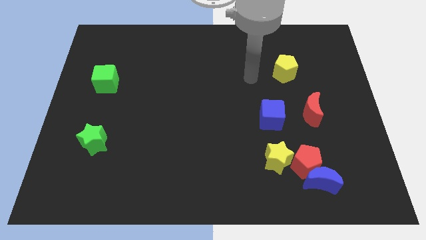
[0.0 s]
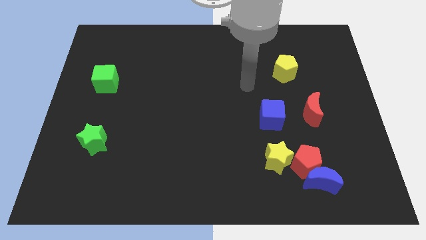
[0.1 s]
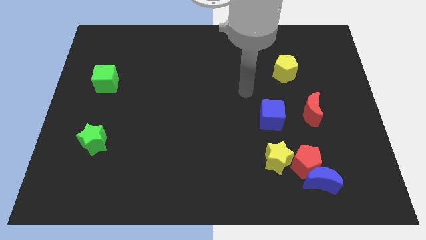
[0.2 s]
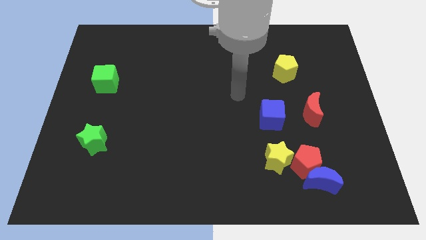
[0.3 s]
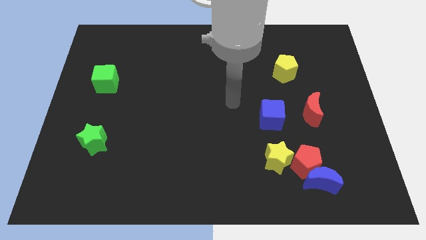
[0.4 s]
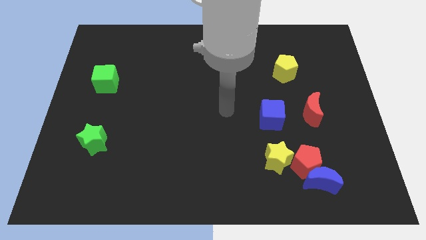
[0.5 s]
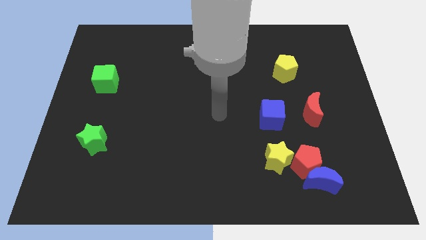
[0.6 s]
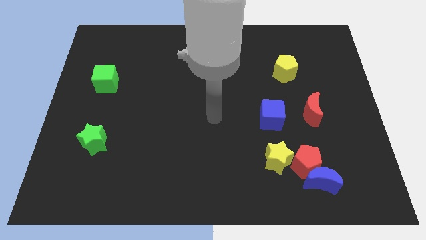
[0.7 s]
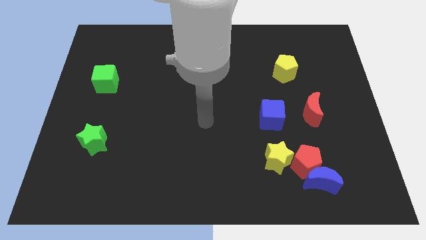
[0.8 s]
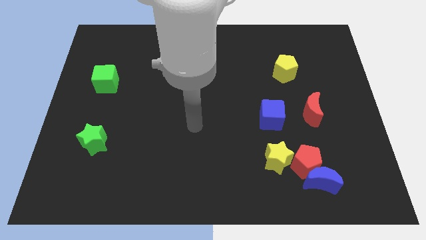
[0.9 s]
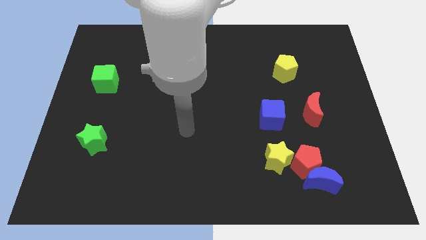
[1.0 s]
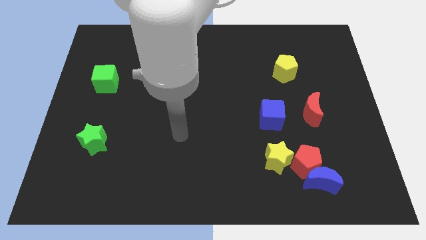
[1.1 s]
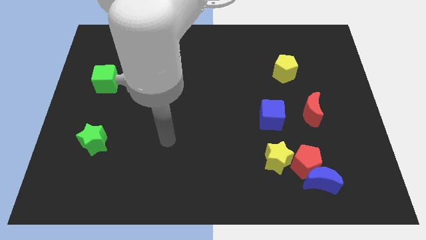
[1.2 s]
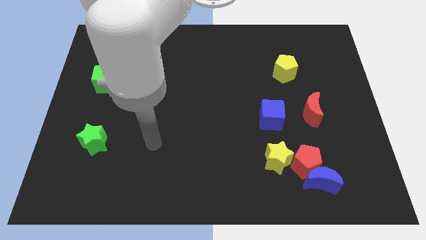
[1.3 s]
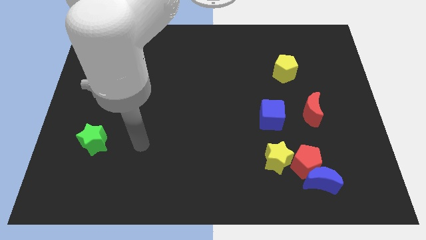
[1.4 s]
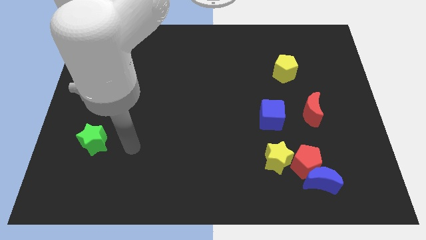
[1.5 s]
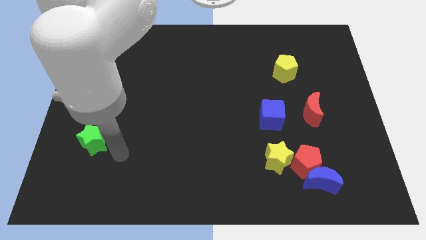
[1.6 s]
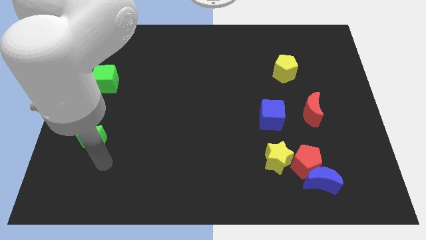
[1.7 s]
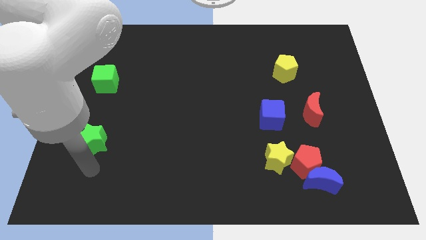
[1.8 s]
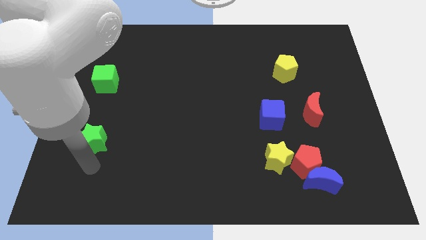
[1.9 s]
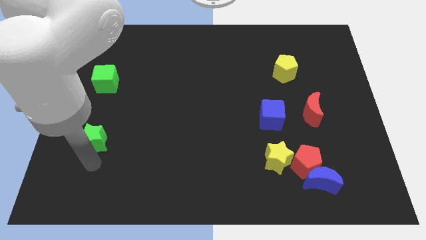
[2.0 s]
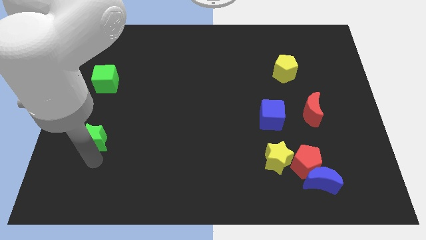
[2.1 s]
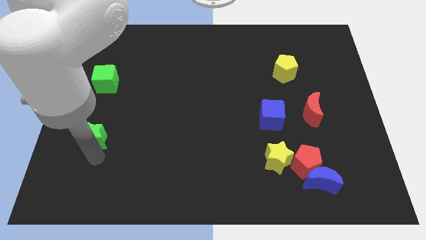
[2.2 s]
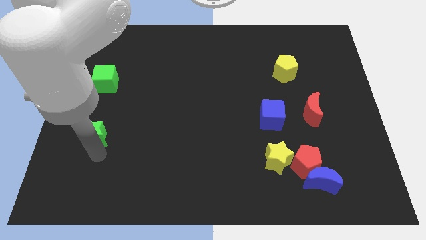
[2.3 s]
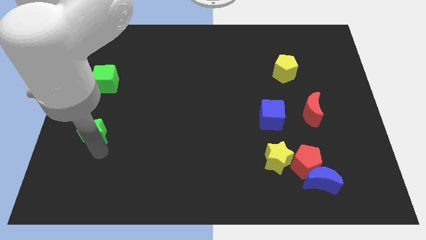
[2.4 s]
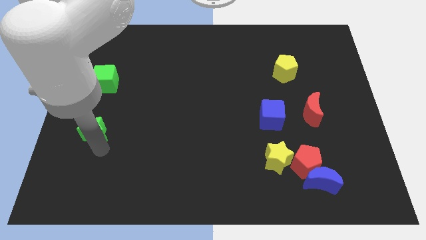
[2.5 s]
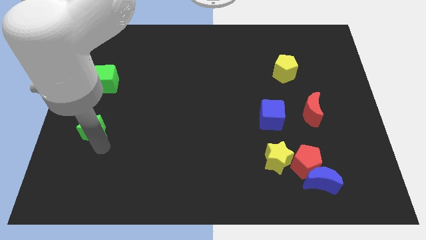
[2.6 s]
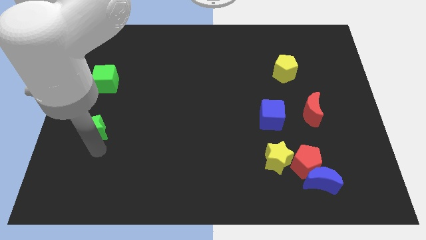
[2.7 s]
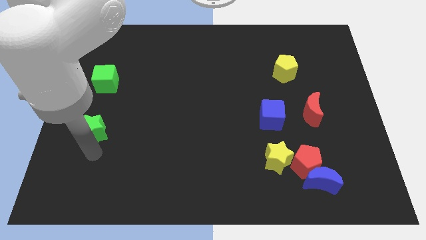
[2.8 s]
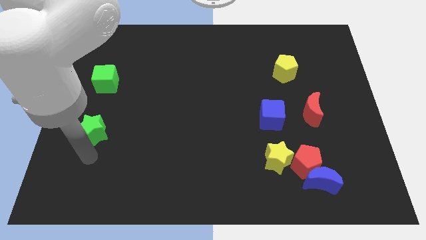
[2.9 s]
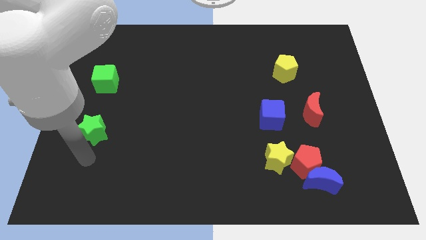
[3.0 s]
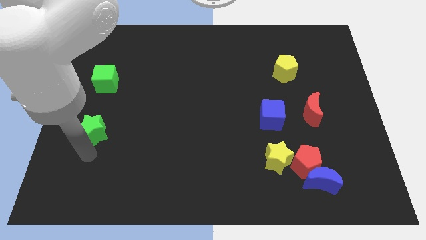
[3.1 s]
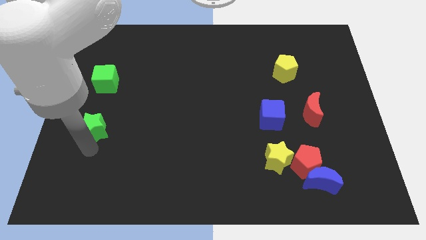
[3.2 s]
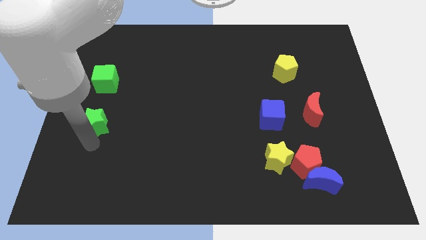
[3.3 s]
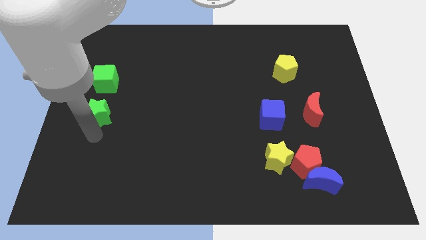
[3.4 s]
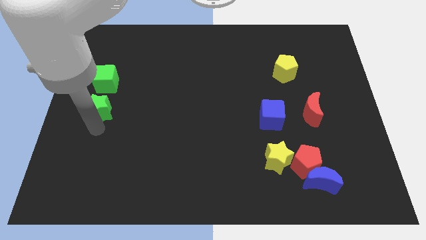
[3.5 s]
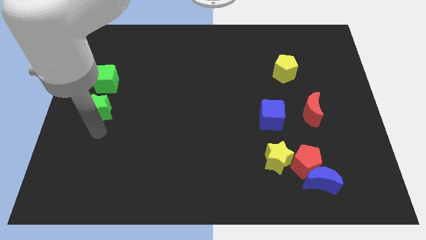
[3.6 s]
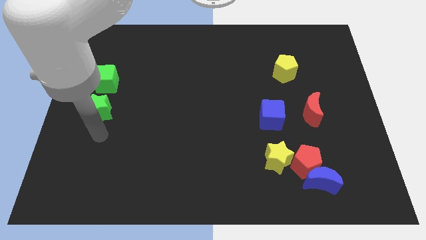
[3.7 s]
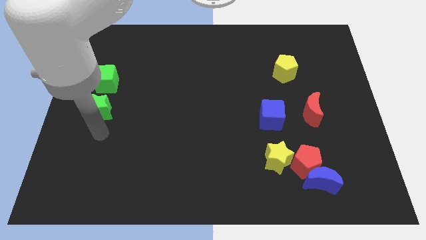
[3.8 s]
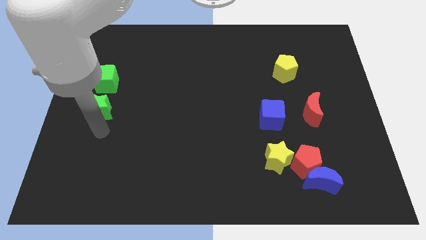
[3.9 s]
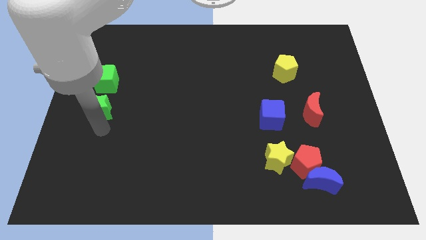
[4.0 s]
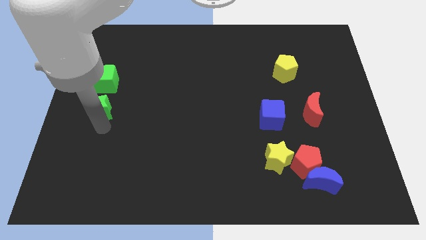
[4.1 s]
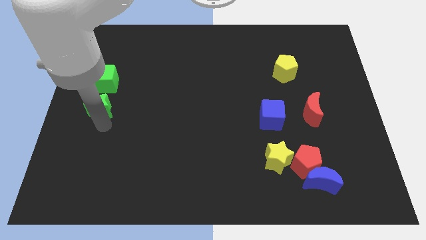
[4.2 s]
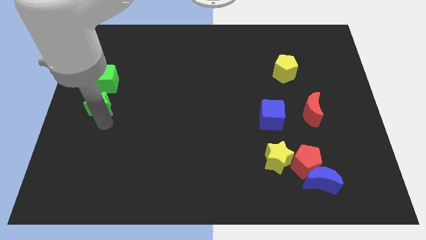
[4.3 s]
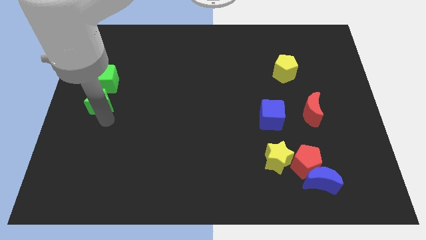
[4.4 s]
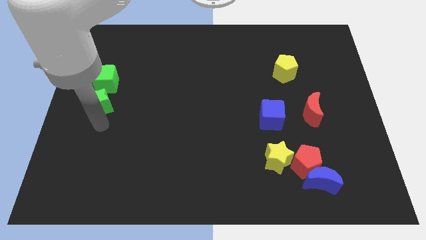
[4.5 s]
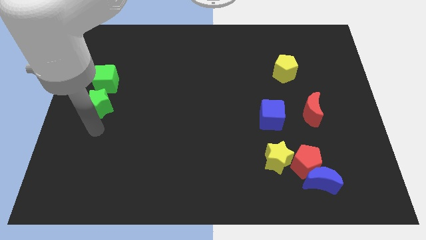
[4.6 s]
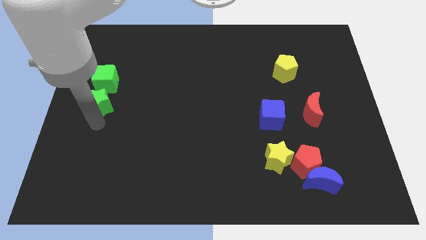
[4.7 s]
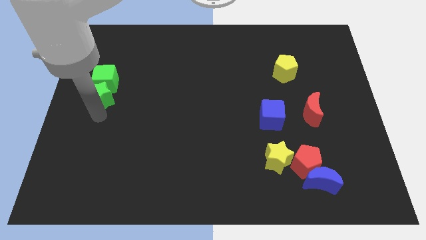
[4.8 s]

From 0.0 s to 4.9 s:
push the green star next to the green cube

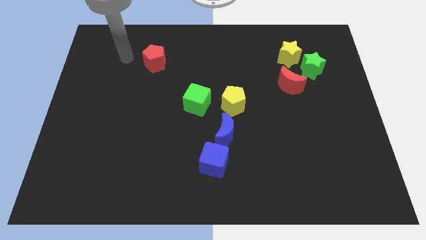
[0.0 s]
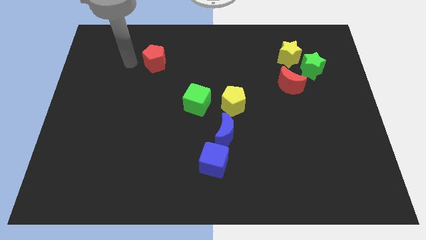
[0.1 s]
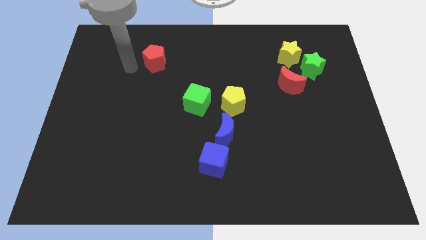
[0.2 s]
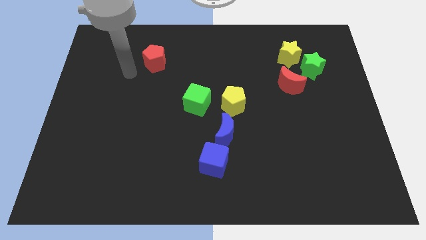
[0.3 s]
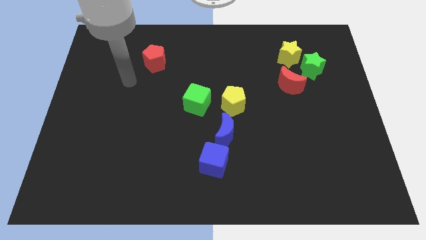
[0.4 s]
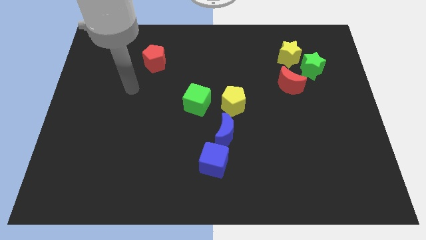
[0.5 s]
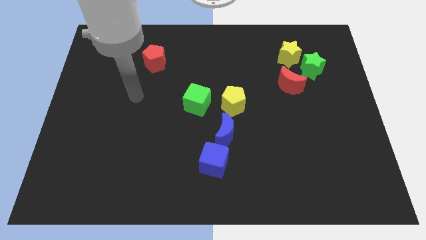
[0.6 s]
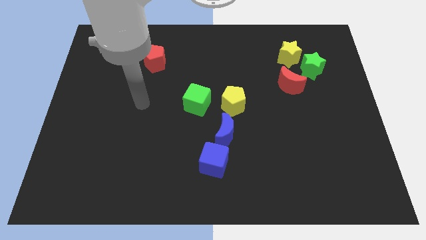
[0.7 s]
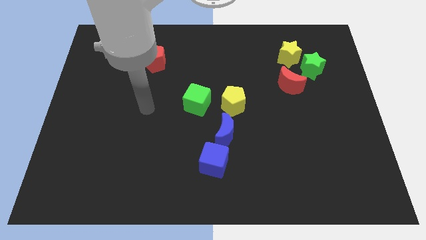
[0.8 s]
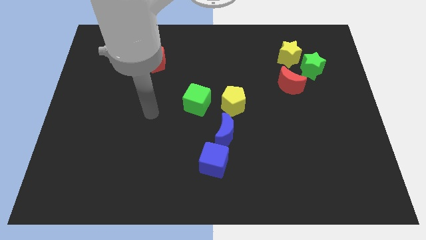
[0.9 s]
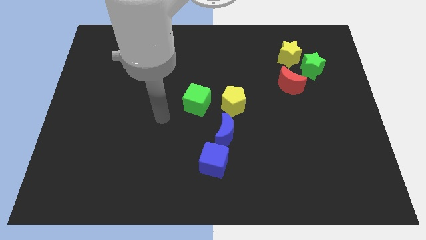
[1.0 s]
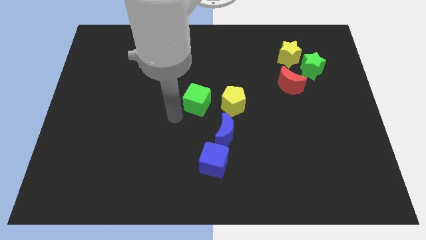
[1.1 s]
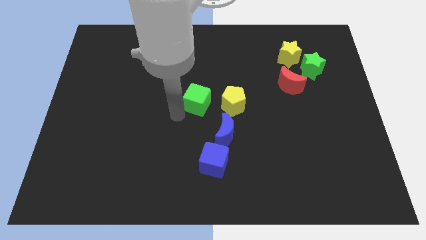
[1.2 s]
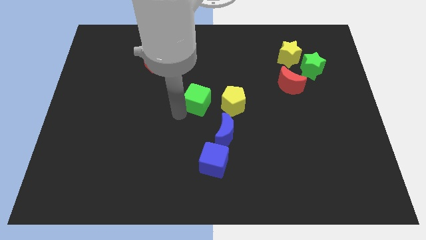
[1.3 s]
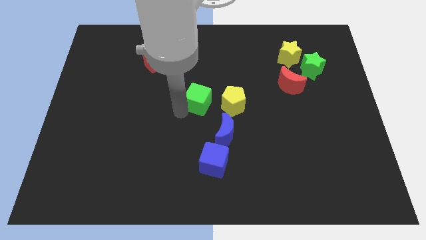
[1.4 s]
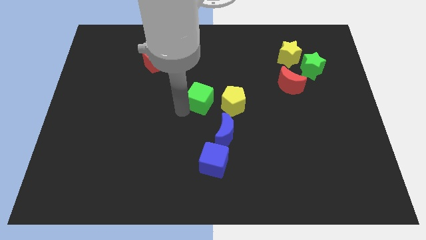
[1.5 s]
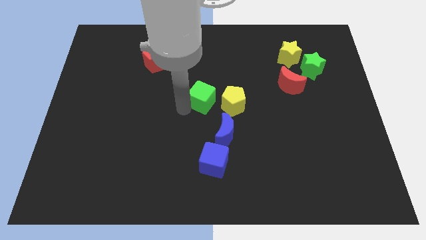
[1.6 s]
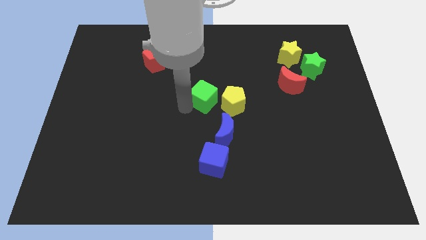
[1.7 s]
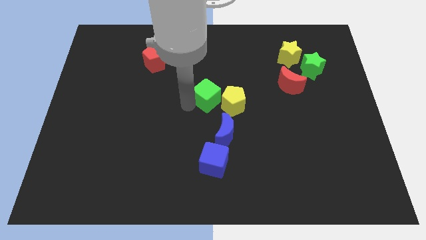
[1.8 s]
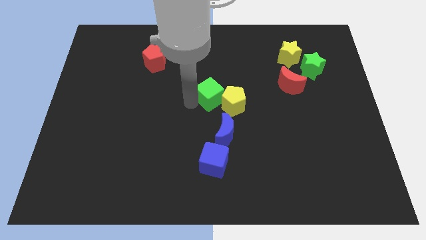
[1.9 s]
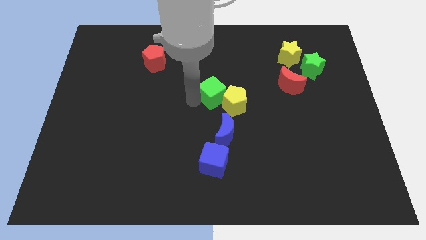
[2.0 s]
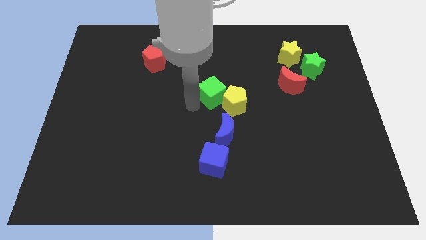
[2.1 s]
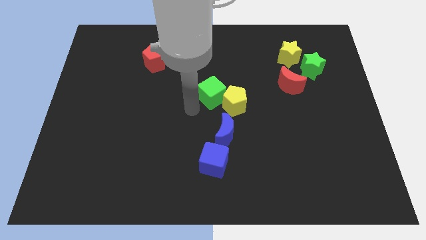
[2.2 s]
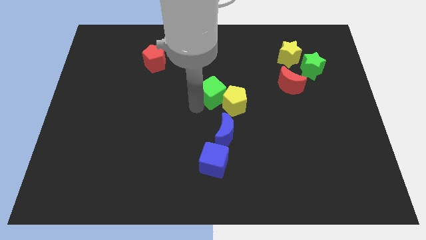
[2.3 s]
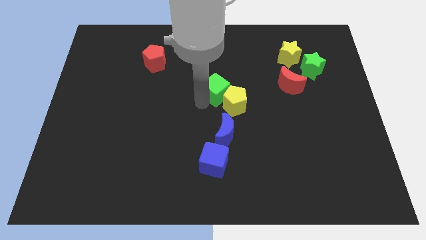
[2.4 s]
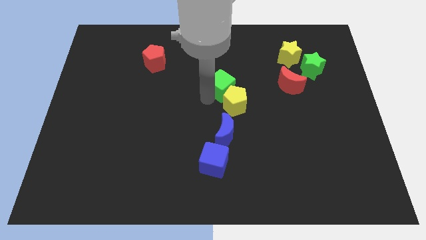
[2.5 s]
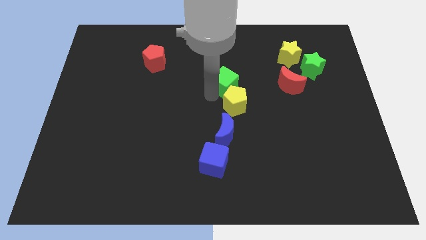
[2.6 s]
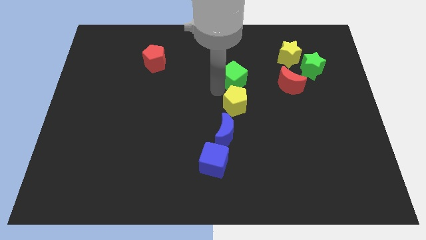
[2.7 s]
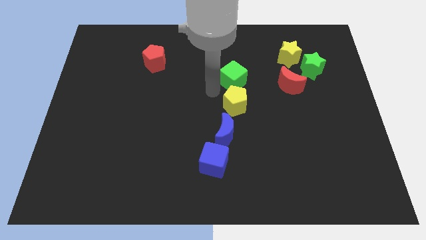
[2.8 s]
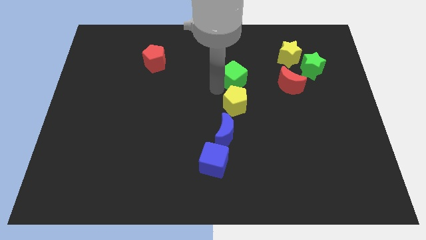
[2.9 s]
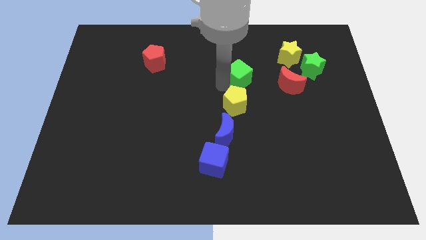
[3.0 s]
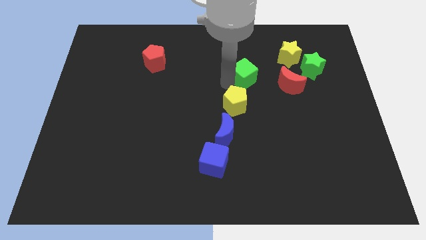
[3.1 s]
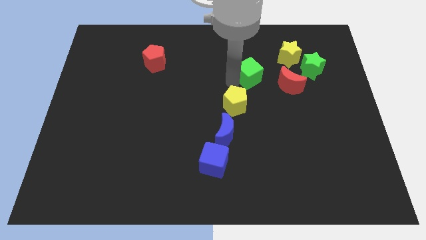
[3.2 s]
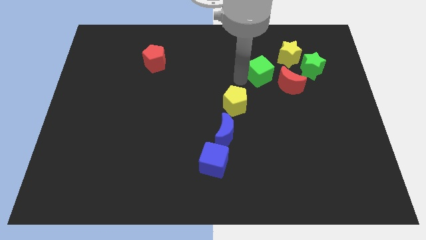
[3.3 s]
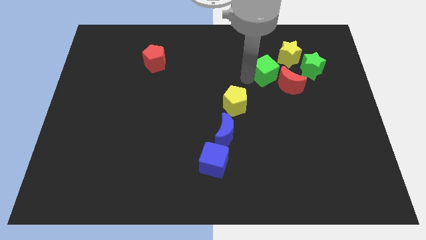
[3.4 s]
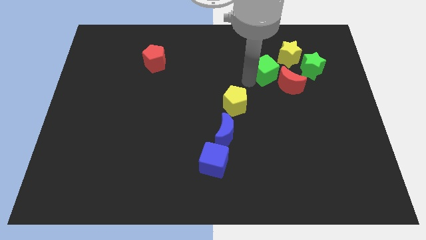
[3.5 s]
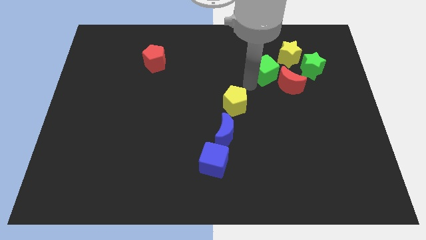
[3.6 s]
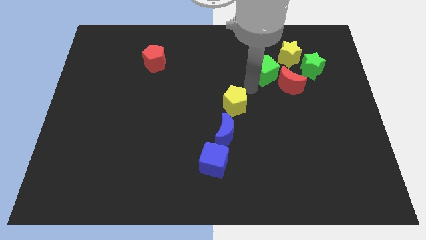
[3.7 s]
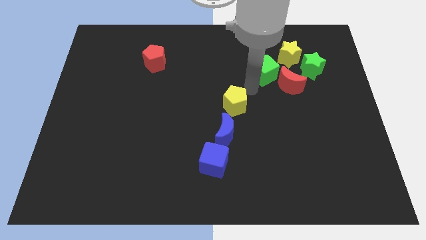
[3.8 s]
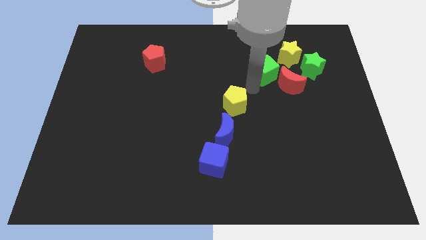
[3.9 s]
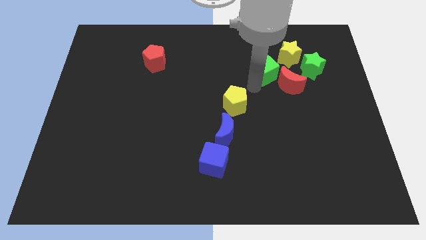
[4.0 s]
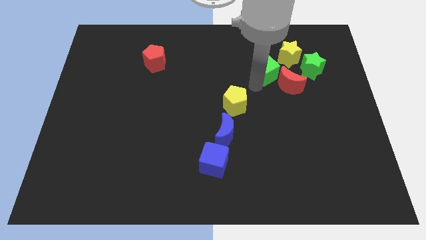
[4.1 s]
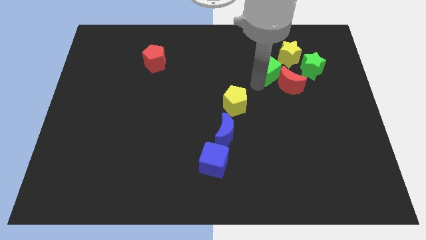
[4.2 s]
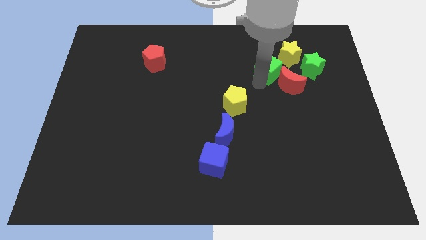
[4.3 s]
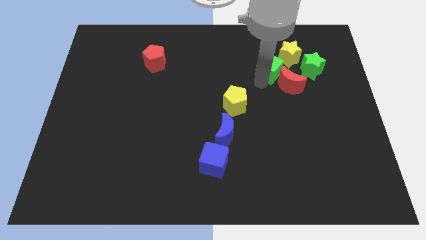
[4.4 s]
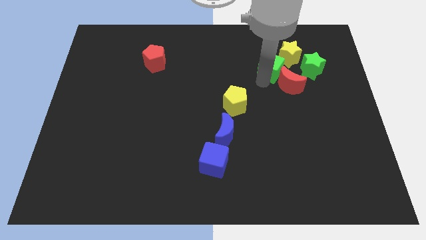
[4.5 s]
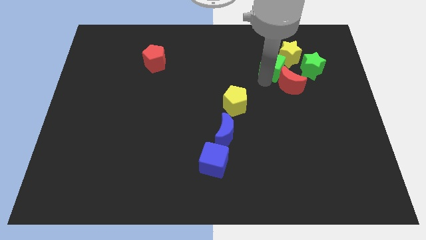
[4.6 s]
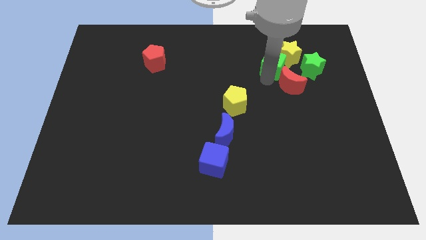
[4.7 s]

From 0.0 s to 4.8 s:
push the green cube towards the yellow star
